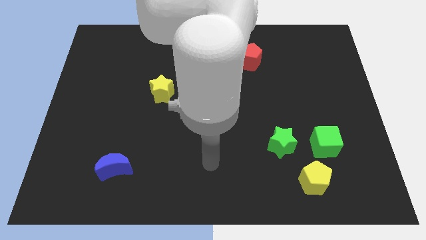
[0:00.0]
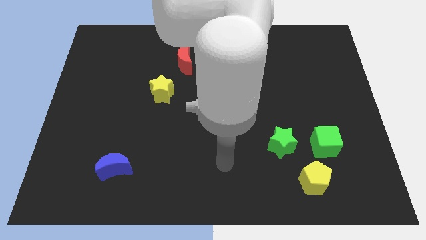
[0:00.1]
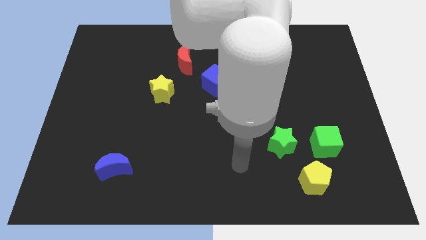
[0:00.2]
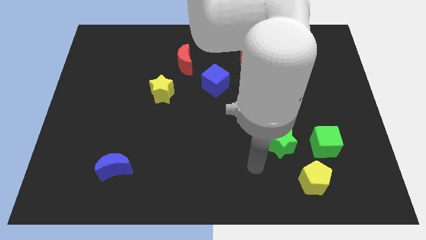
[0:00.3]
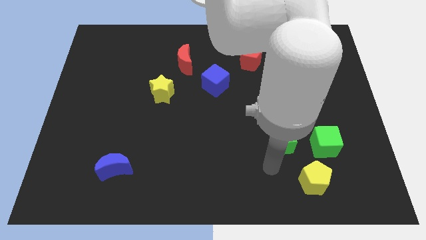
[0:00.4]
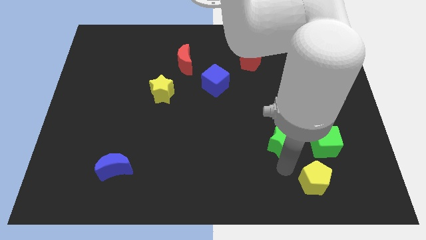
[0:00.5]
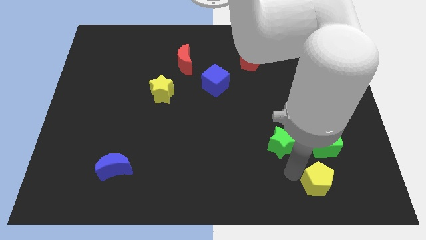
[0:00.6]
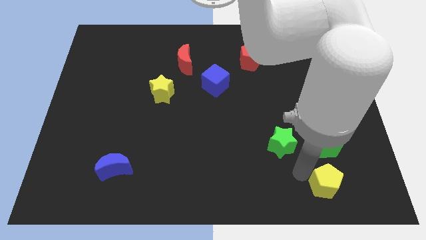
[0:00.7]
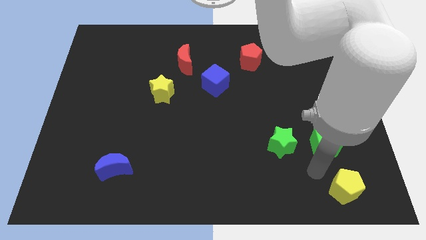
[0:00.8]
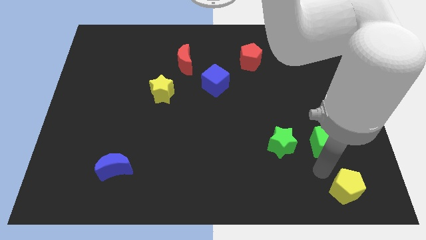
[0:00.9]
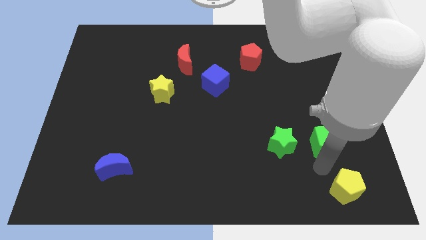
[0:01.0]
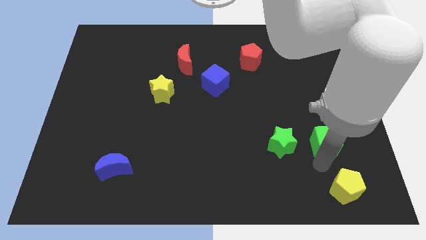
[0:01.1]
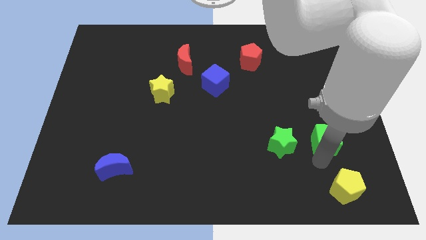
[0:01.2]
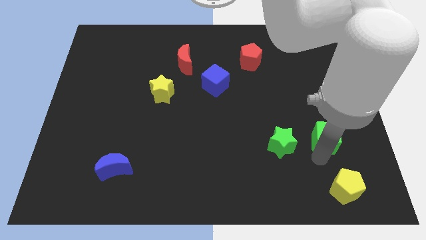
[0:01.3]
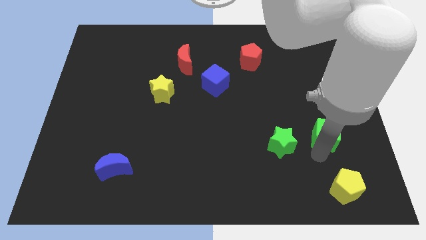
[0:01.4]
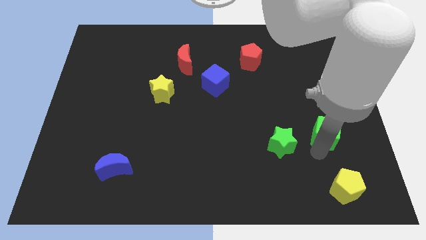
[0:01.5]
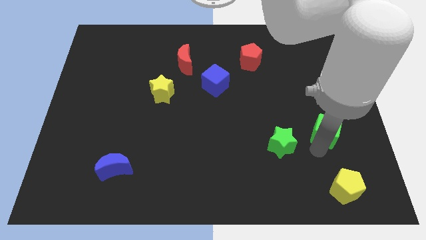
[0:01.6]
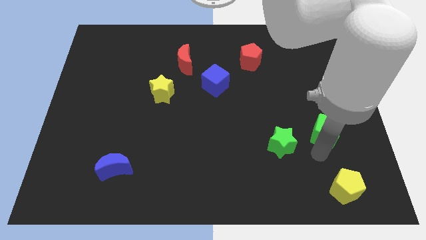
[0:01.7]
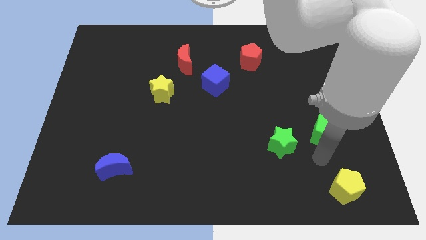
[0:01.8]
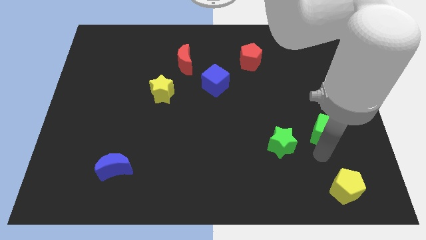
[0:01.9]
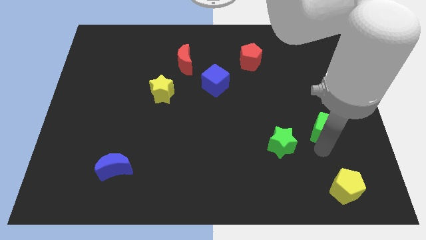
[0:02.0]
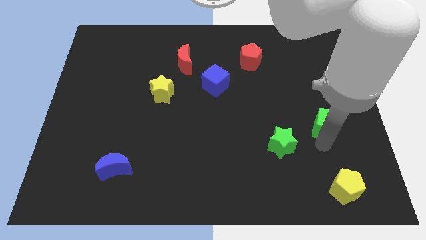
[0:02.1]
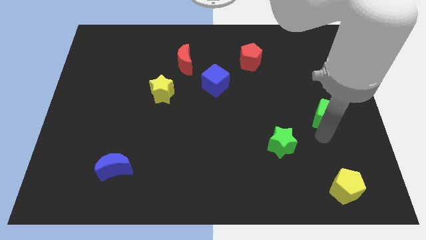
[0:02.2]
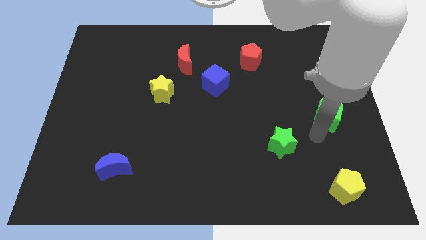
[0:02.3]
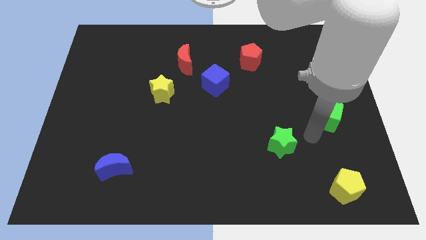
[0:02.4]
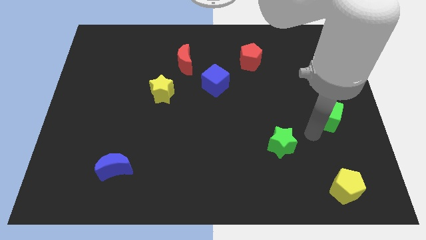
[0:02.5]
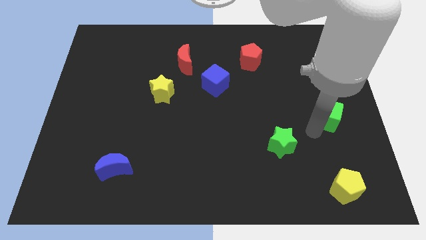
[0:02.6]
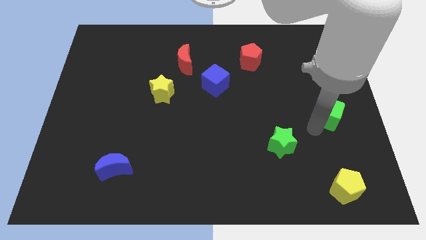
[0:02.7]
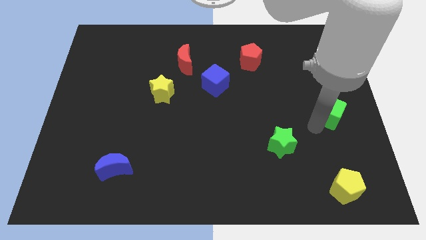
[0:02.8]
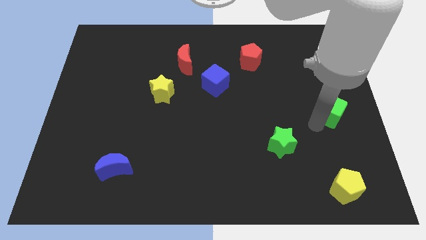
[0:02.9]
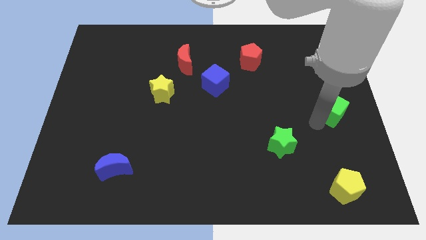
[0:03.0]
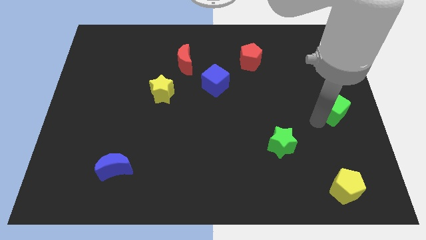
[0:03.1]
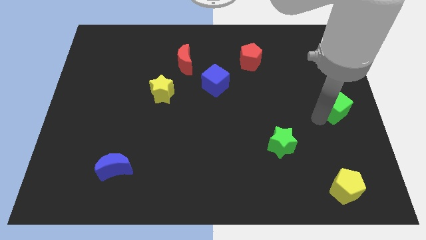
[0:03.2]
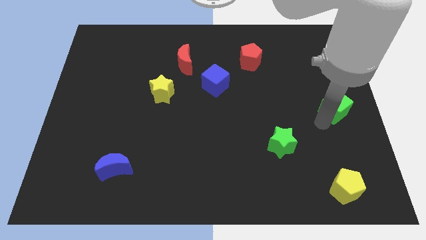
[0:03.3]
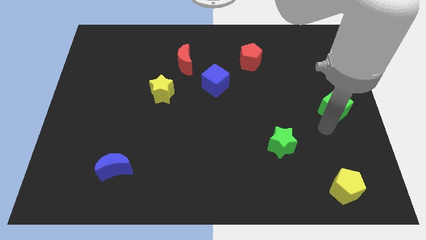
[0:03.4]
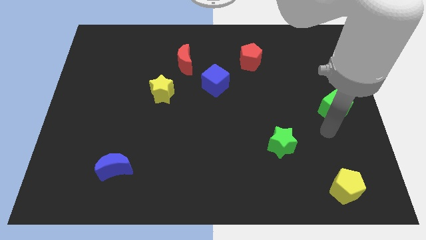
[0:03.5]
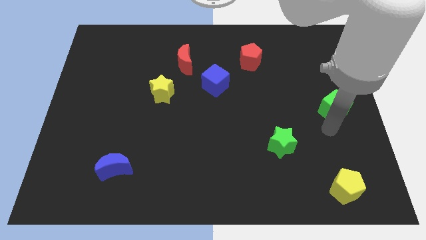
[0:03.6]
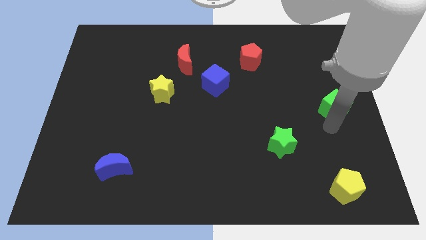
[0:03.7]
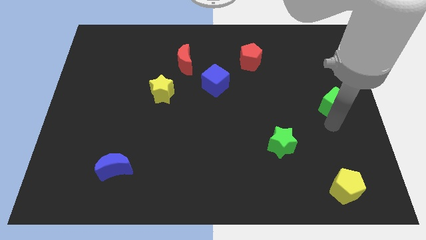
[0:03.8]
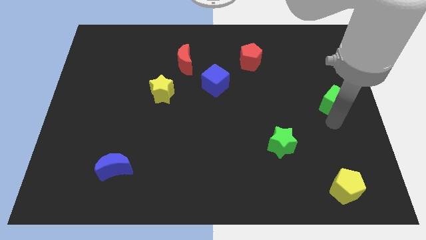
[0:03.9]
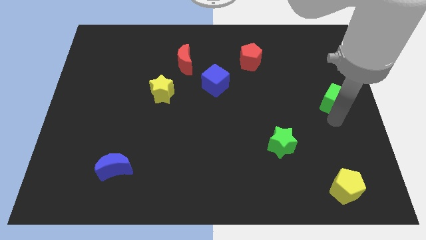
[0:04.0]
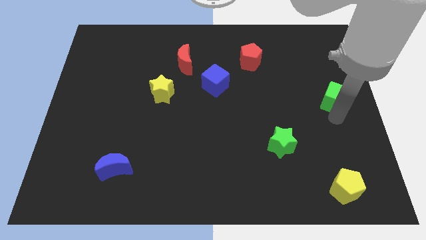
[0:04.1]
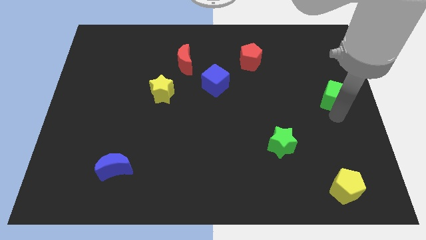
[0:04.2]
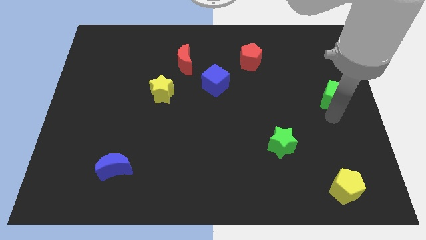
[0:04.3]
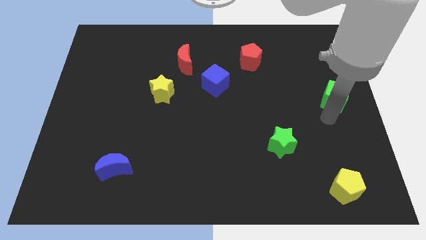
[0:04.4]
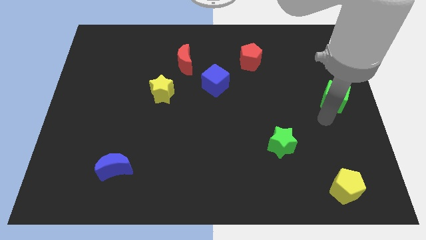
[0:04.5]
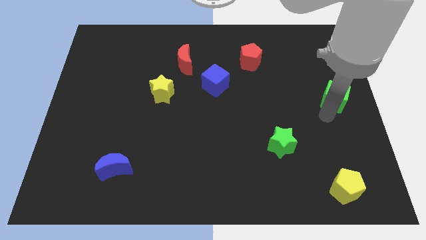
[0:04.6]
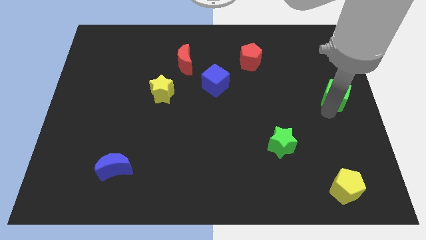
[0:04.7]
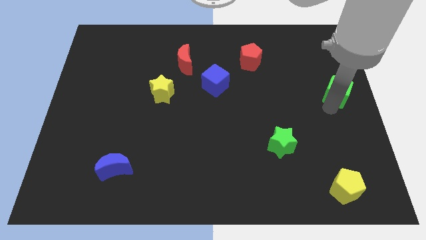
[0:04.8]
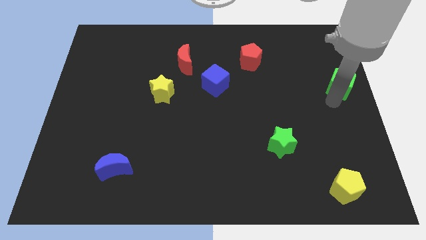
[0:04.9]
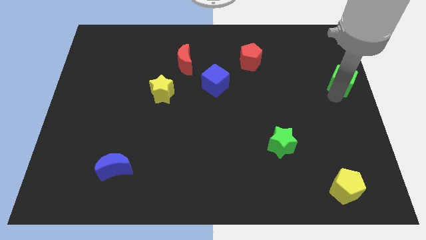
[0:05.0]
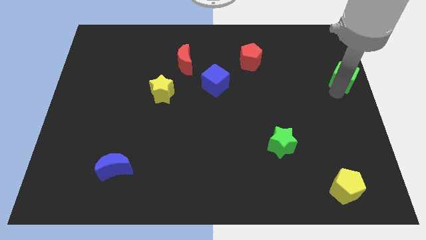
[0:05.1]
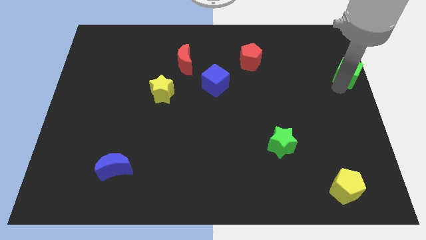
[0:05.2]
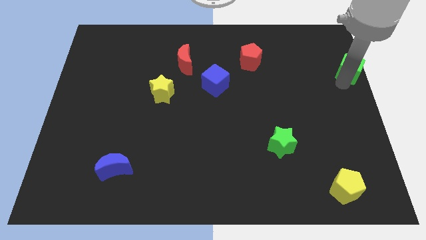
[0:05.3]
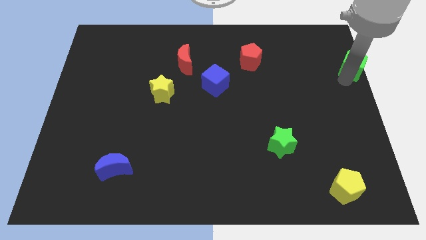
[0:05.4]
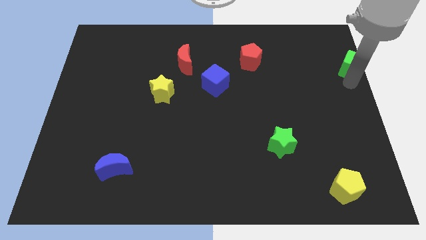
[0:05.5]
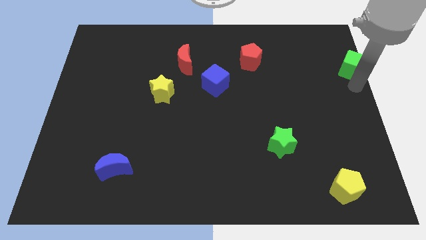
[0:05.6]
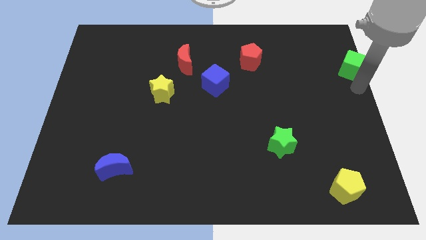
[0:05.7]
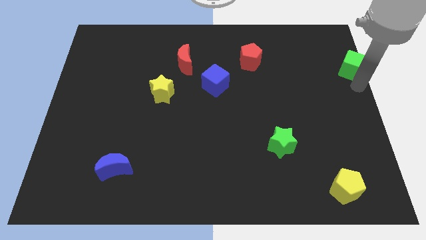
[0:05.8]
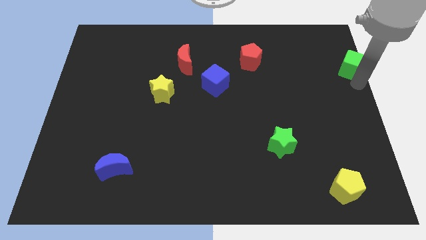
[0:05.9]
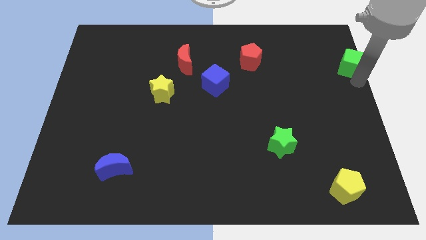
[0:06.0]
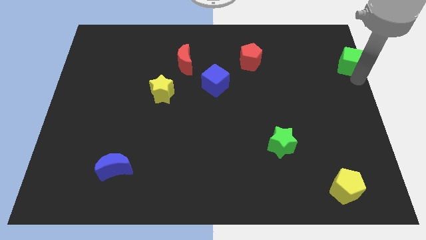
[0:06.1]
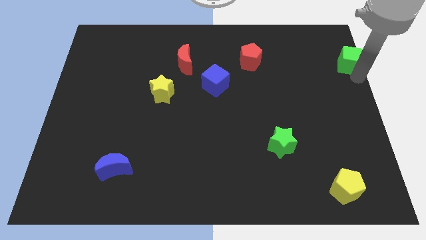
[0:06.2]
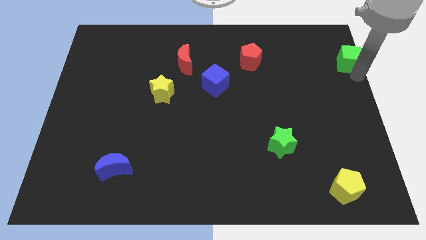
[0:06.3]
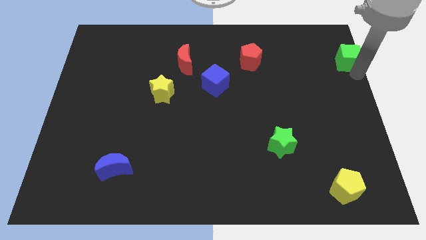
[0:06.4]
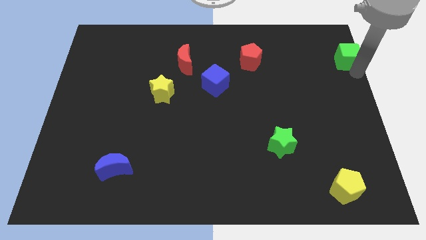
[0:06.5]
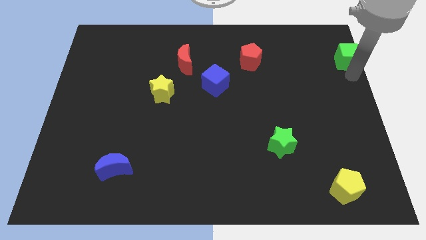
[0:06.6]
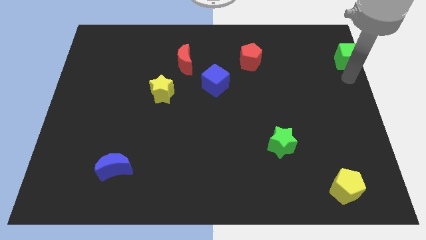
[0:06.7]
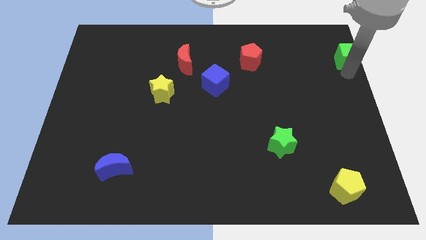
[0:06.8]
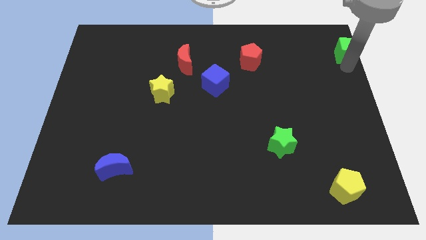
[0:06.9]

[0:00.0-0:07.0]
put the green cube to the top right of the board
